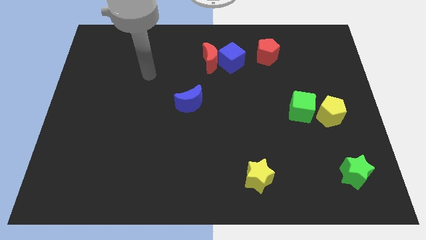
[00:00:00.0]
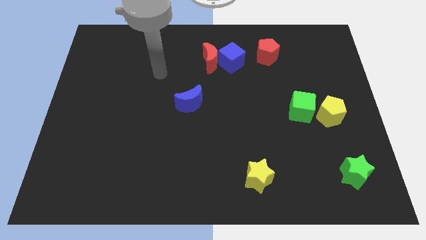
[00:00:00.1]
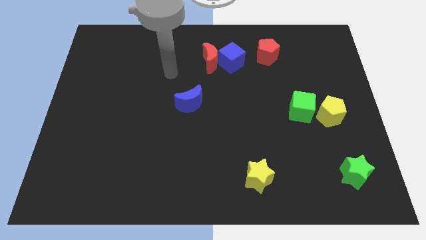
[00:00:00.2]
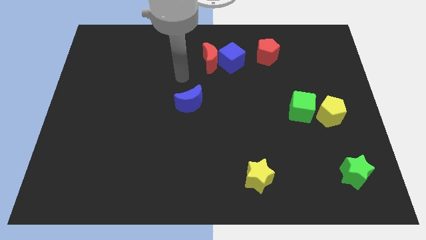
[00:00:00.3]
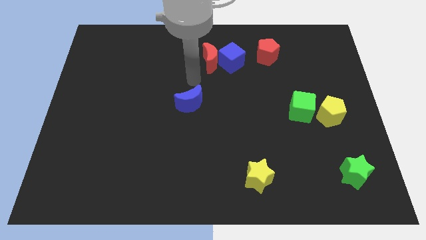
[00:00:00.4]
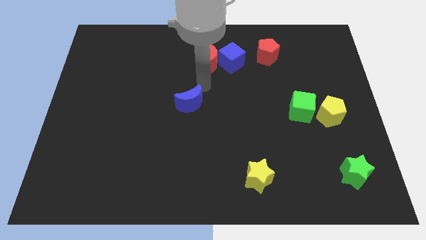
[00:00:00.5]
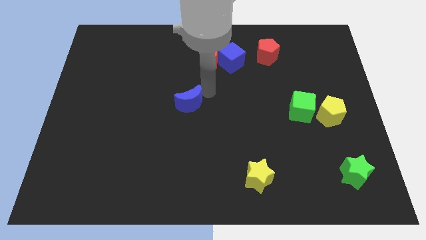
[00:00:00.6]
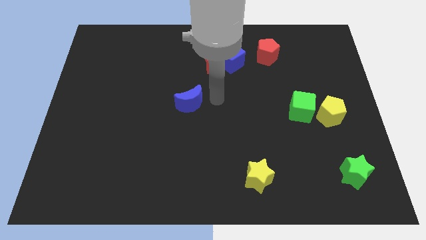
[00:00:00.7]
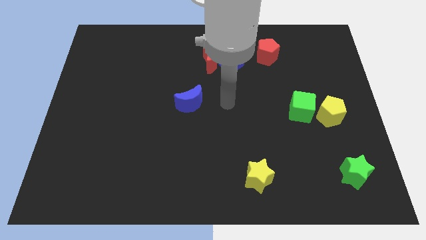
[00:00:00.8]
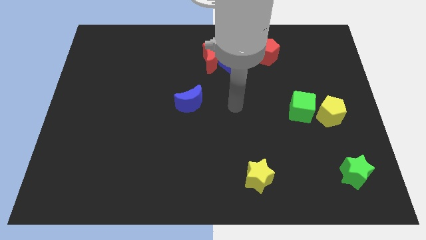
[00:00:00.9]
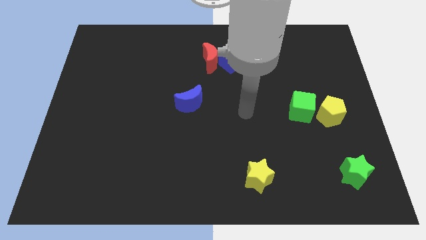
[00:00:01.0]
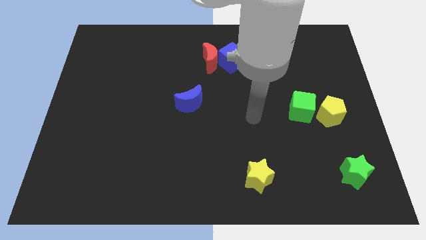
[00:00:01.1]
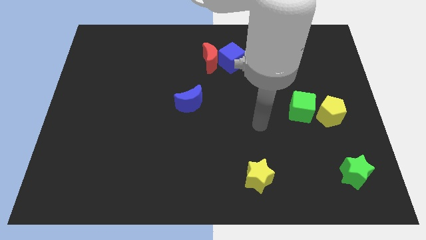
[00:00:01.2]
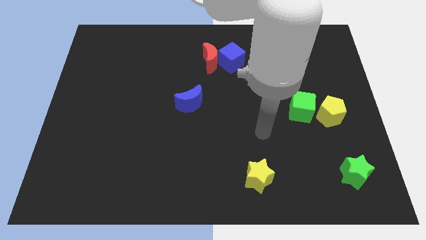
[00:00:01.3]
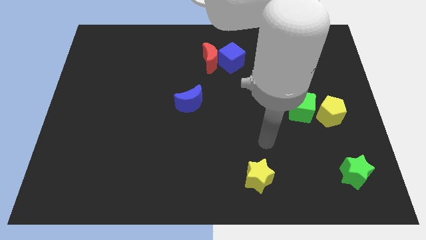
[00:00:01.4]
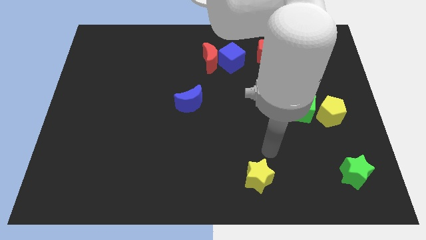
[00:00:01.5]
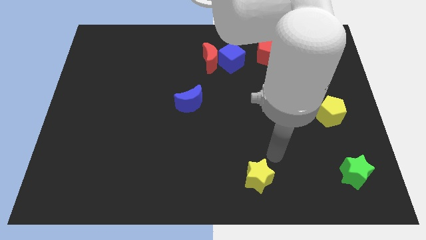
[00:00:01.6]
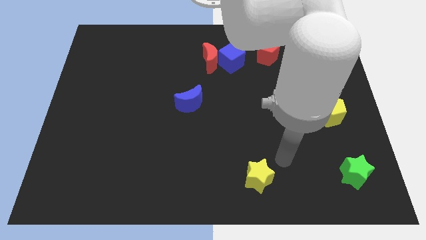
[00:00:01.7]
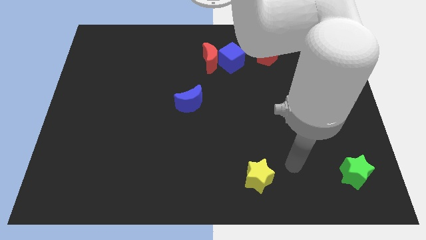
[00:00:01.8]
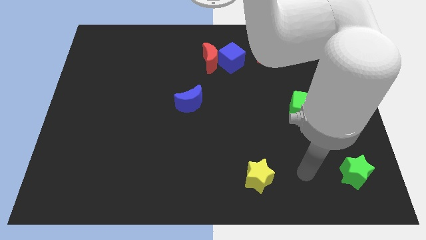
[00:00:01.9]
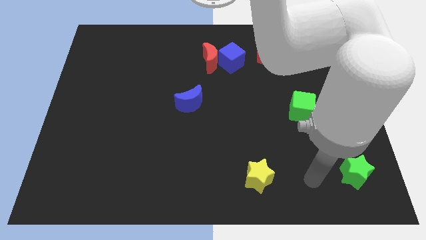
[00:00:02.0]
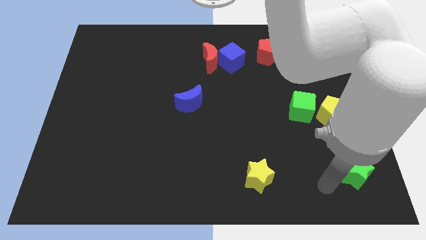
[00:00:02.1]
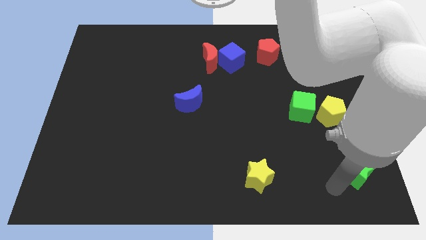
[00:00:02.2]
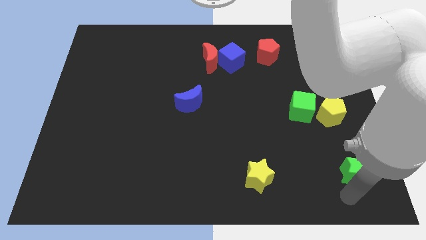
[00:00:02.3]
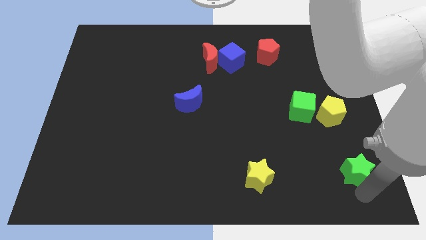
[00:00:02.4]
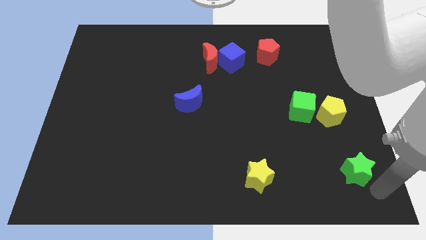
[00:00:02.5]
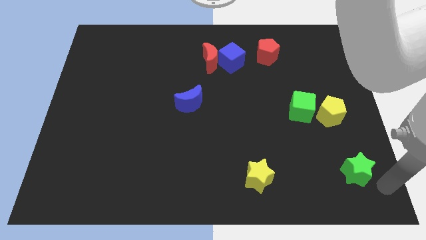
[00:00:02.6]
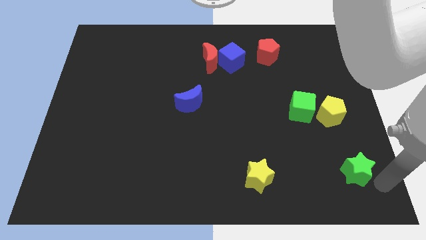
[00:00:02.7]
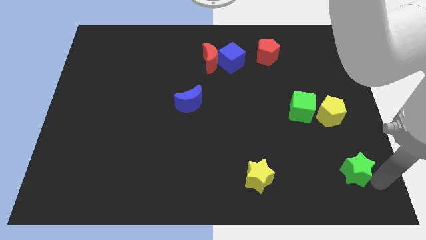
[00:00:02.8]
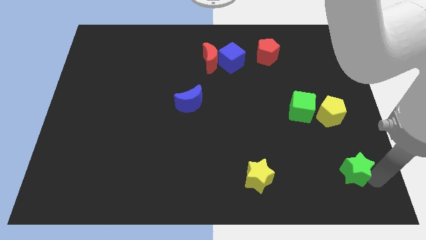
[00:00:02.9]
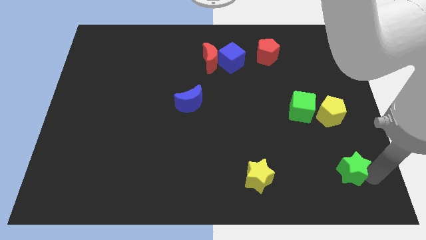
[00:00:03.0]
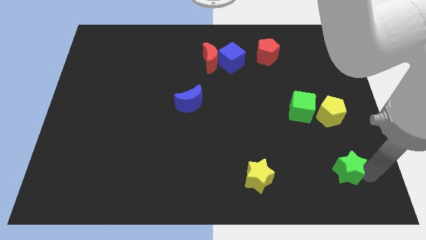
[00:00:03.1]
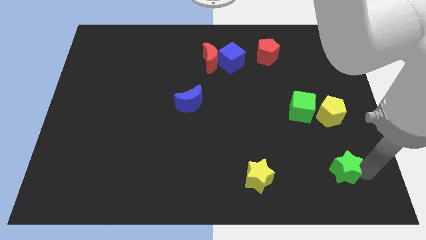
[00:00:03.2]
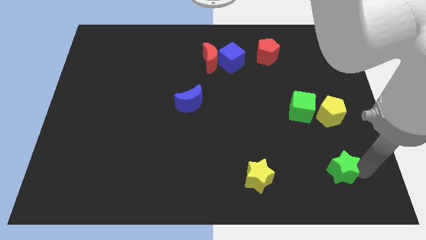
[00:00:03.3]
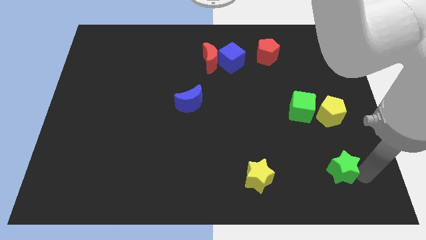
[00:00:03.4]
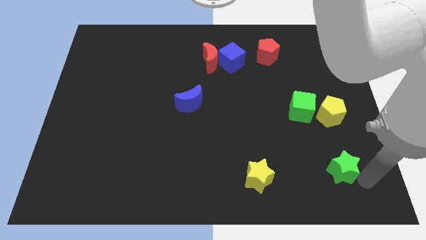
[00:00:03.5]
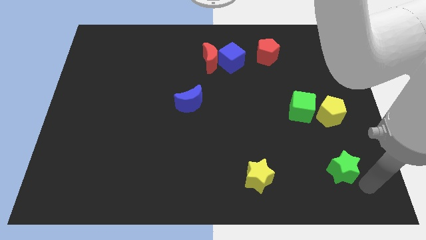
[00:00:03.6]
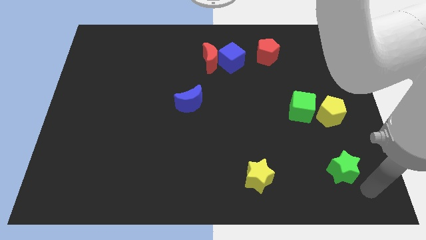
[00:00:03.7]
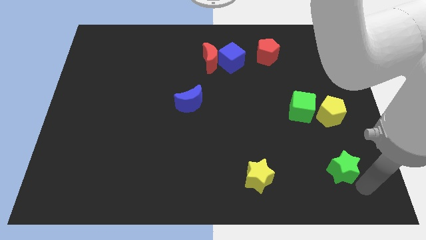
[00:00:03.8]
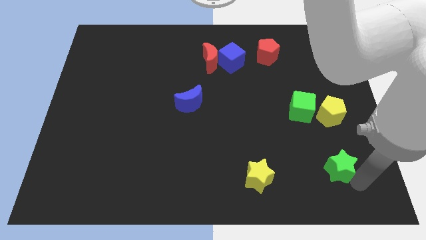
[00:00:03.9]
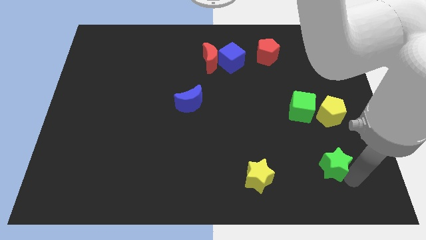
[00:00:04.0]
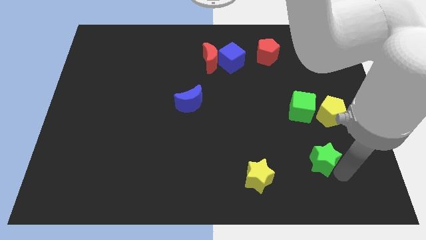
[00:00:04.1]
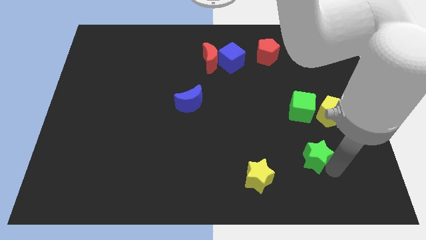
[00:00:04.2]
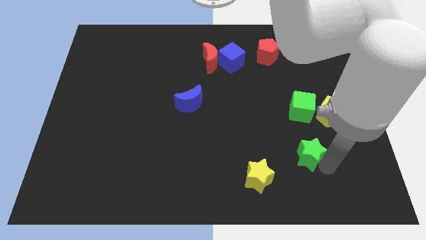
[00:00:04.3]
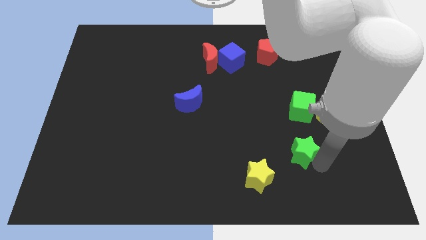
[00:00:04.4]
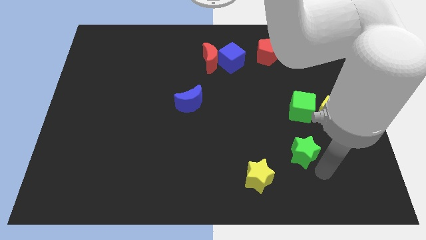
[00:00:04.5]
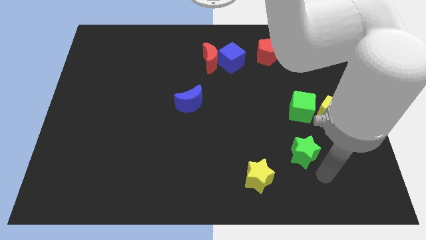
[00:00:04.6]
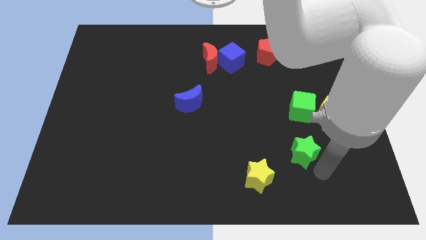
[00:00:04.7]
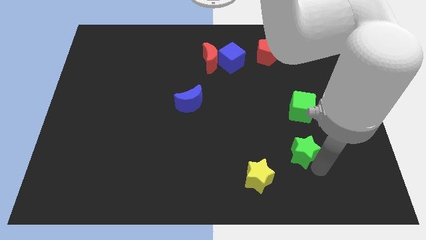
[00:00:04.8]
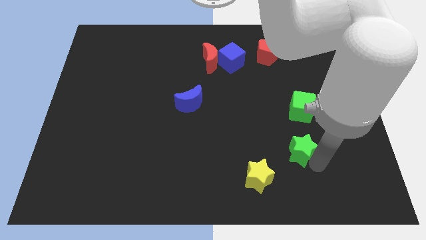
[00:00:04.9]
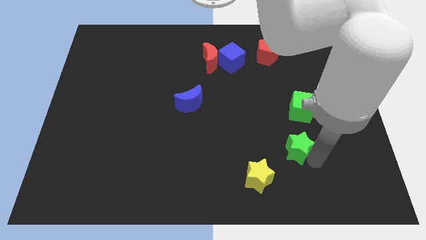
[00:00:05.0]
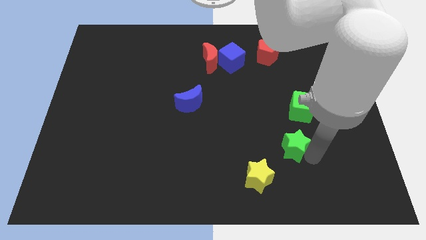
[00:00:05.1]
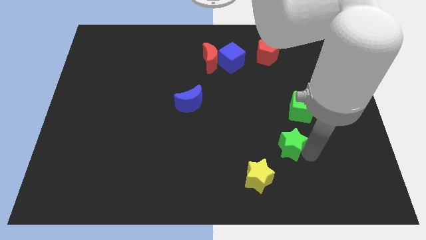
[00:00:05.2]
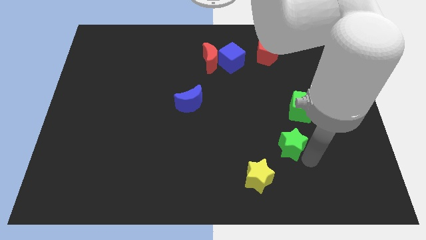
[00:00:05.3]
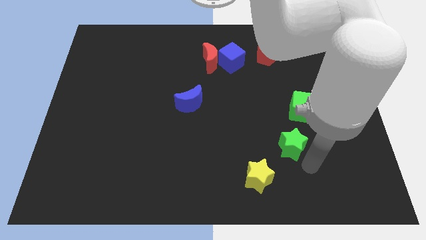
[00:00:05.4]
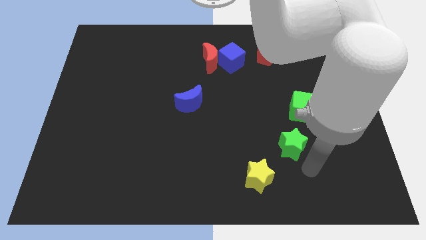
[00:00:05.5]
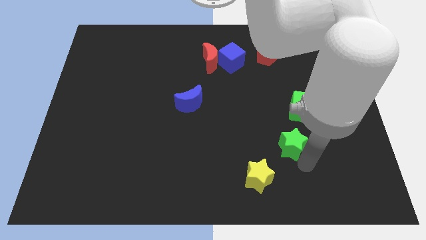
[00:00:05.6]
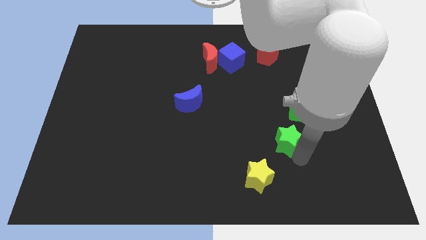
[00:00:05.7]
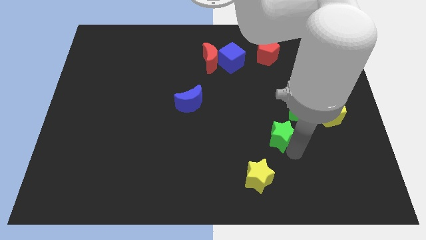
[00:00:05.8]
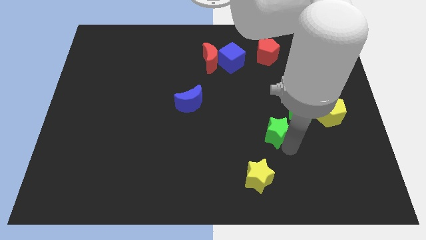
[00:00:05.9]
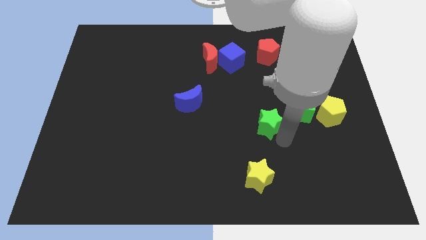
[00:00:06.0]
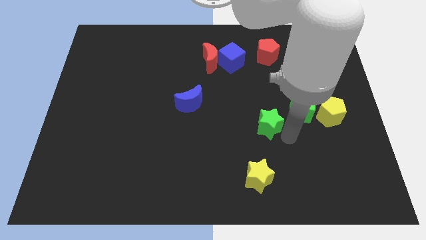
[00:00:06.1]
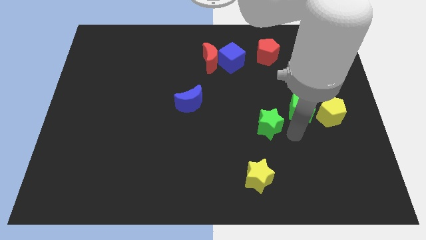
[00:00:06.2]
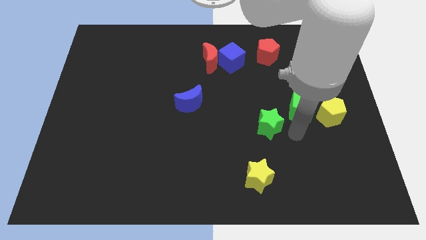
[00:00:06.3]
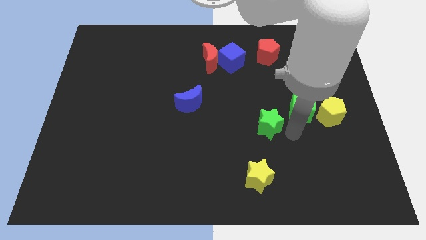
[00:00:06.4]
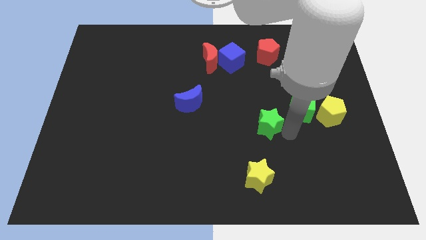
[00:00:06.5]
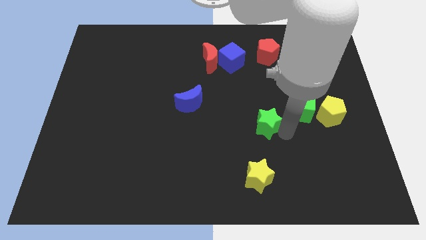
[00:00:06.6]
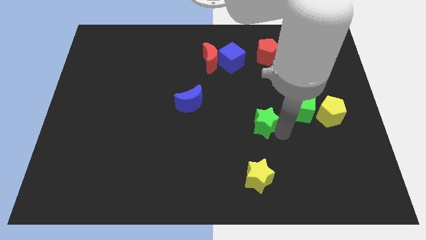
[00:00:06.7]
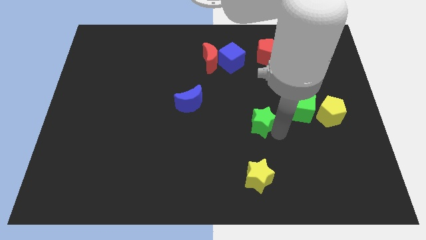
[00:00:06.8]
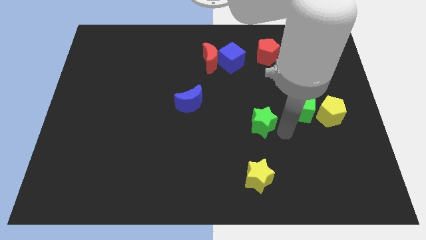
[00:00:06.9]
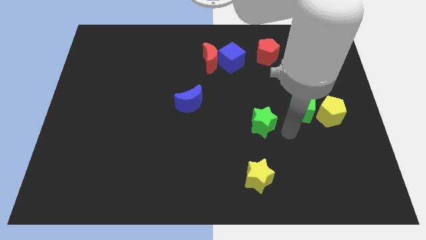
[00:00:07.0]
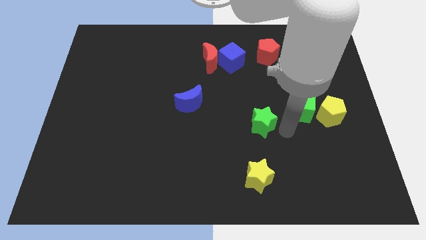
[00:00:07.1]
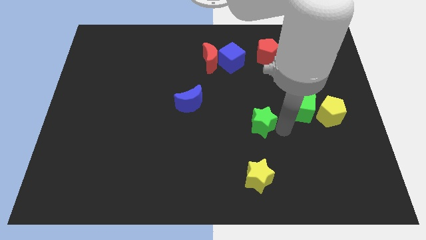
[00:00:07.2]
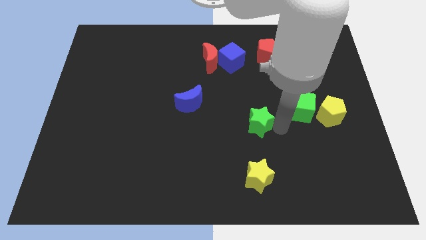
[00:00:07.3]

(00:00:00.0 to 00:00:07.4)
move the green star to the center

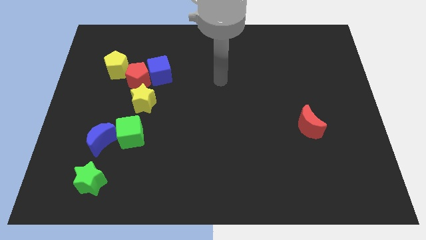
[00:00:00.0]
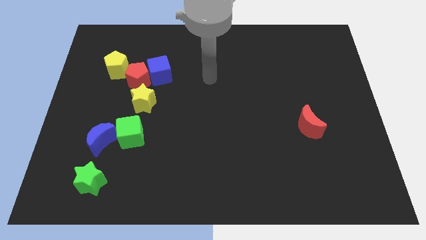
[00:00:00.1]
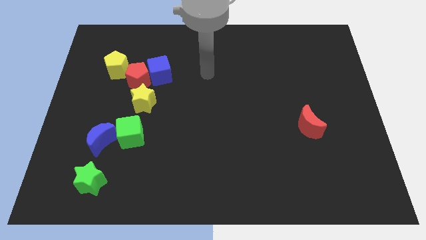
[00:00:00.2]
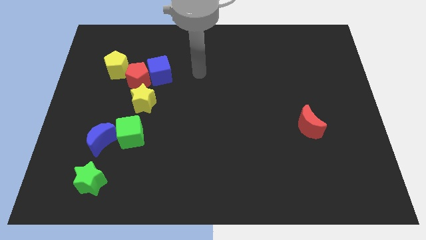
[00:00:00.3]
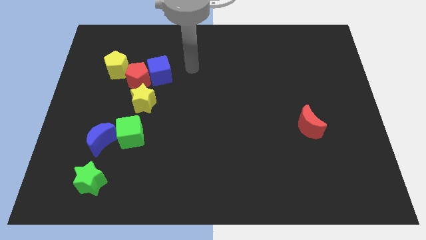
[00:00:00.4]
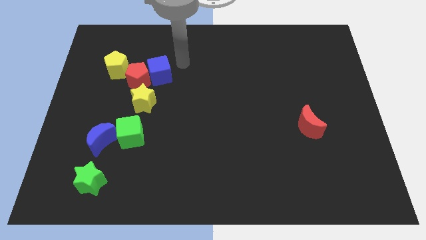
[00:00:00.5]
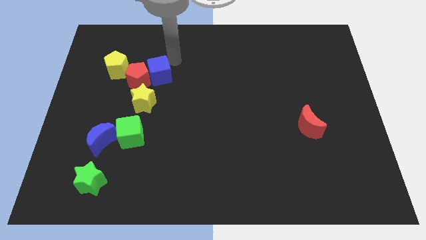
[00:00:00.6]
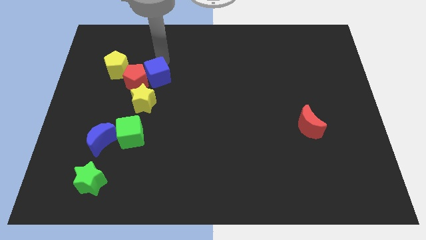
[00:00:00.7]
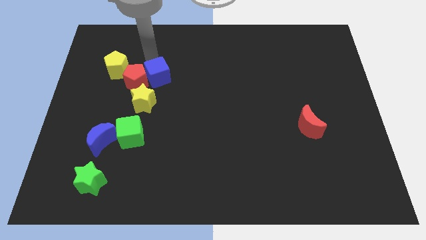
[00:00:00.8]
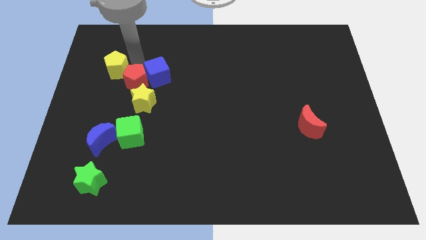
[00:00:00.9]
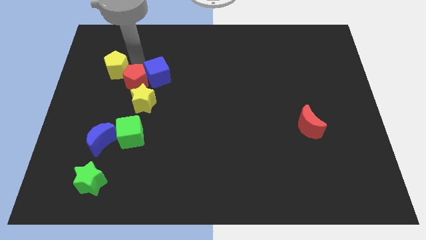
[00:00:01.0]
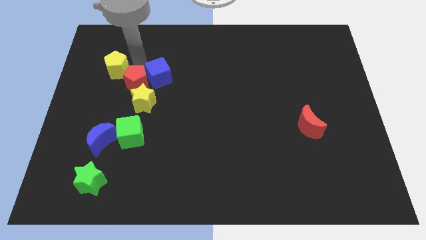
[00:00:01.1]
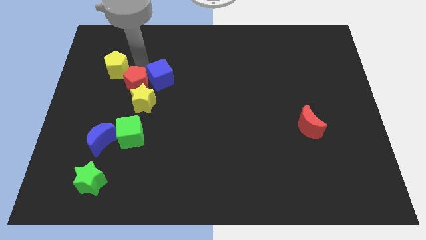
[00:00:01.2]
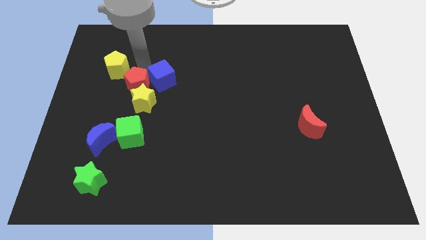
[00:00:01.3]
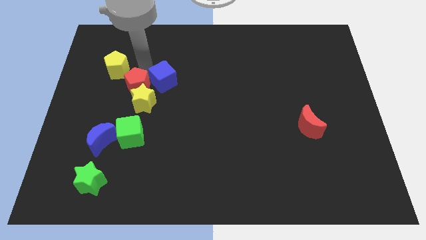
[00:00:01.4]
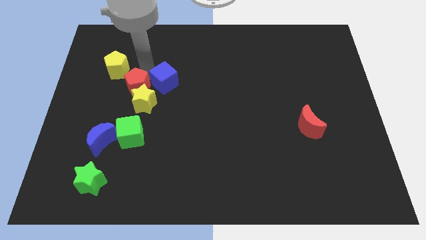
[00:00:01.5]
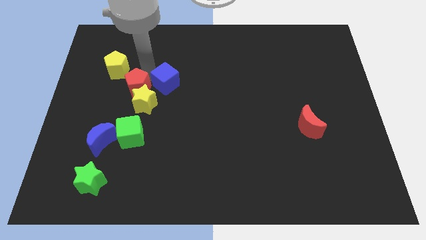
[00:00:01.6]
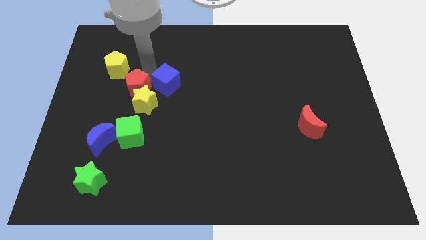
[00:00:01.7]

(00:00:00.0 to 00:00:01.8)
push the blue cube to the middle of the board
